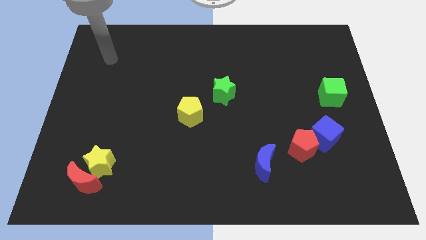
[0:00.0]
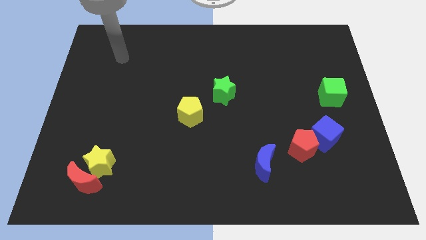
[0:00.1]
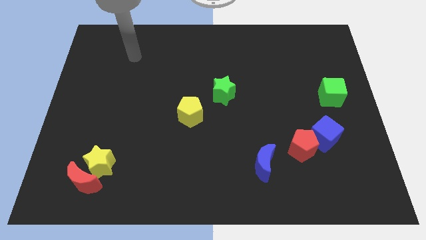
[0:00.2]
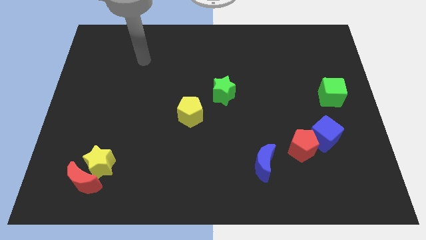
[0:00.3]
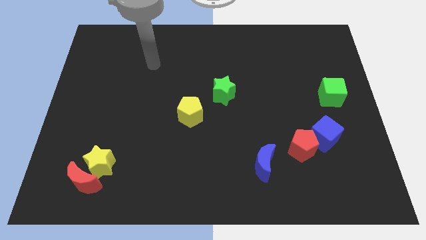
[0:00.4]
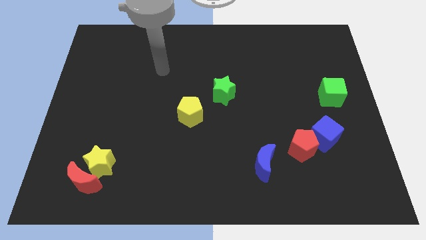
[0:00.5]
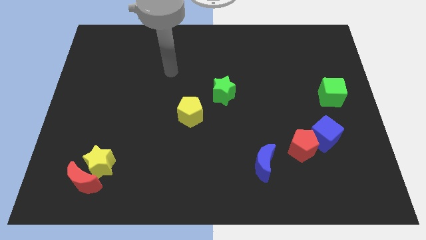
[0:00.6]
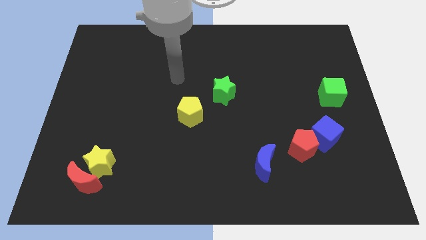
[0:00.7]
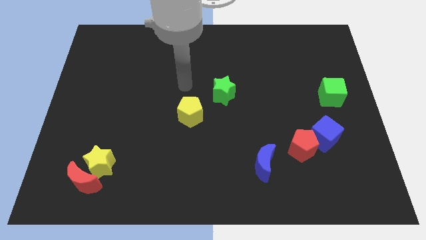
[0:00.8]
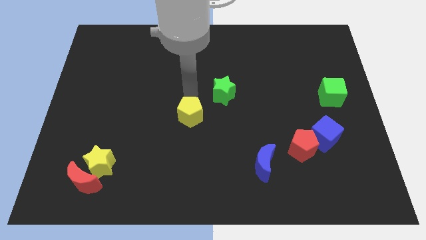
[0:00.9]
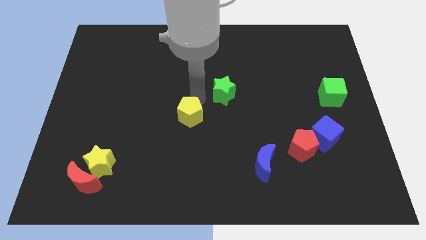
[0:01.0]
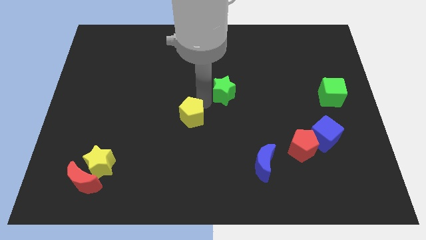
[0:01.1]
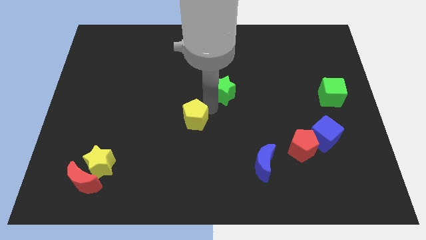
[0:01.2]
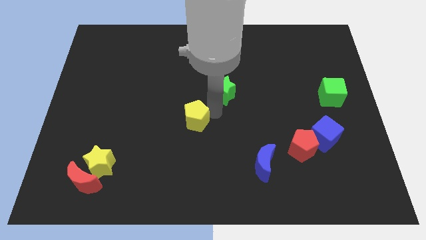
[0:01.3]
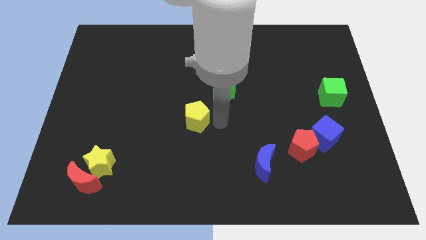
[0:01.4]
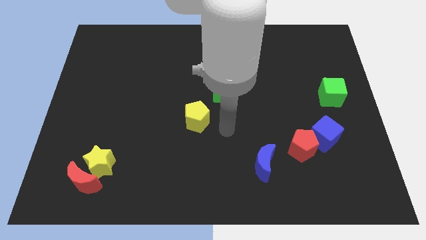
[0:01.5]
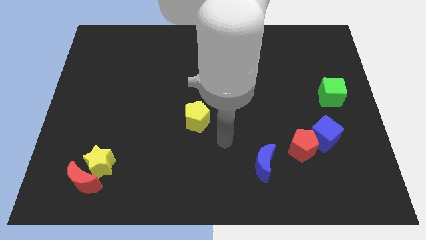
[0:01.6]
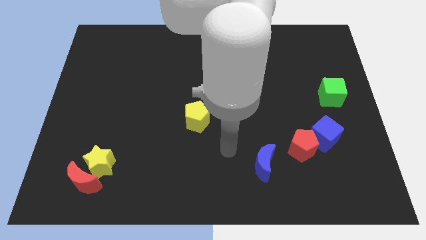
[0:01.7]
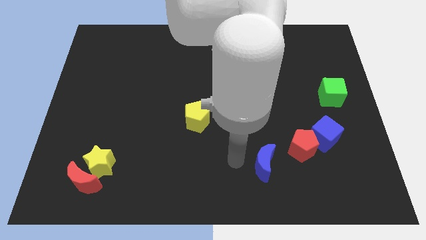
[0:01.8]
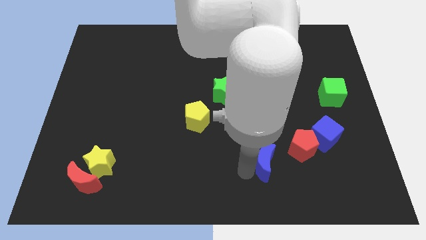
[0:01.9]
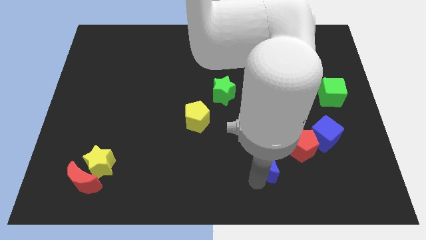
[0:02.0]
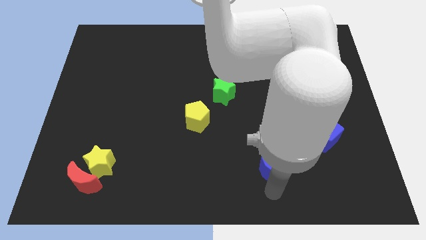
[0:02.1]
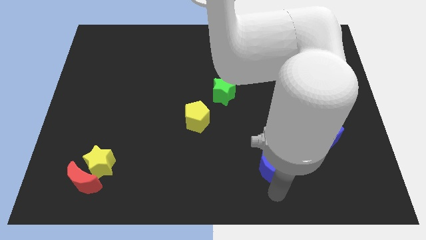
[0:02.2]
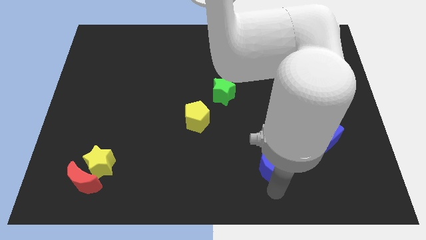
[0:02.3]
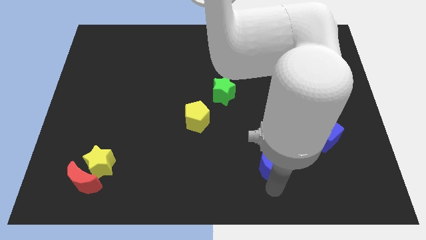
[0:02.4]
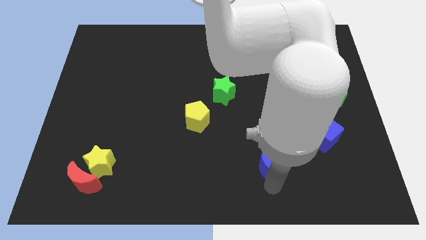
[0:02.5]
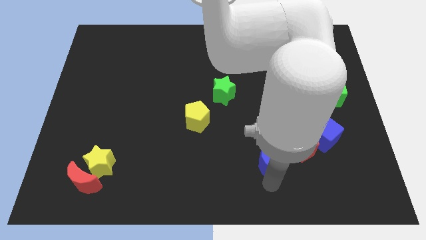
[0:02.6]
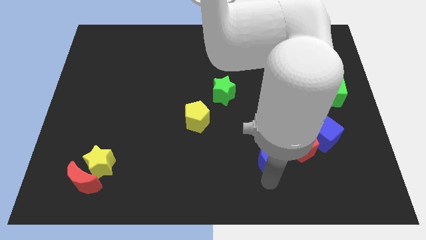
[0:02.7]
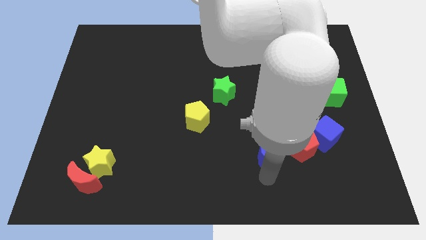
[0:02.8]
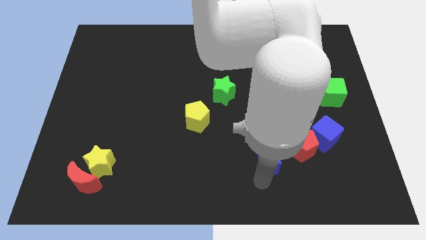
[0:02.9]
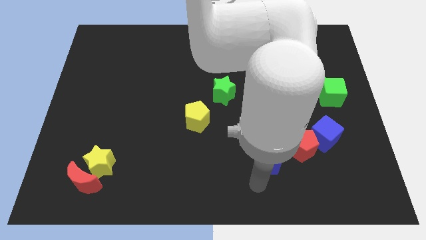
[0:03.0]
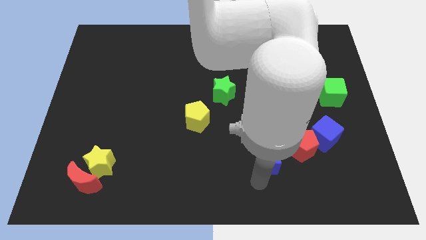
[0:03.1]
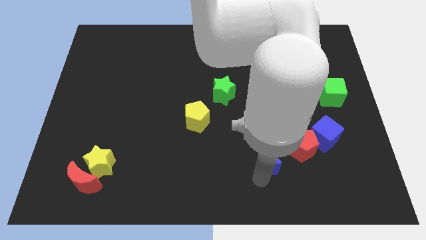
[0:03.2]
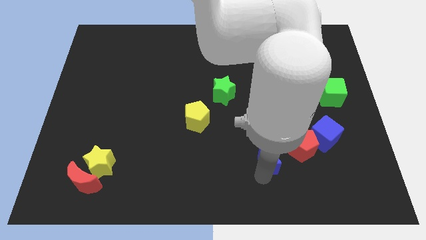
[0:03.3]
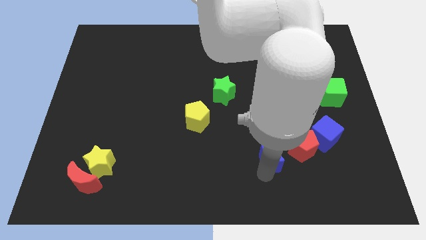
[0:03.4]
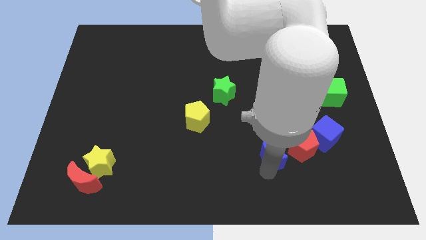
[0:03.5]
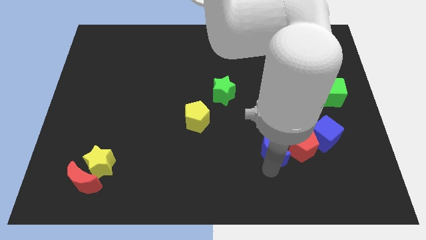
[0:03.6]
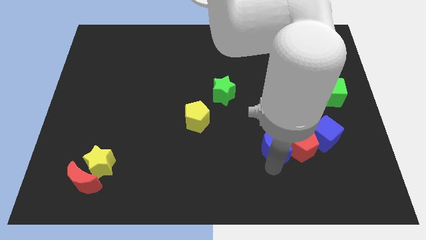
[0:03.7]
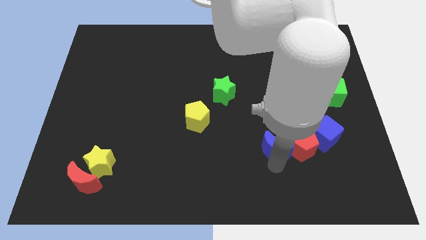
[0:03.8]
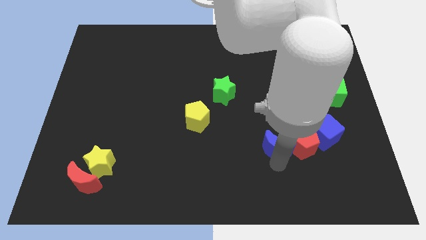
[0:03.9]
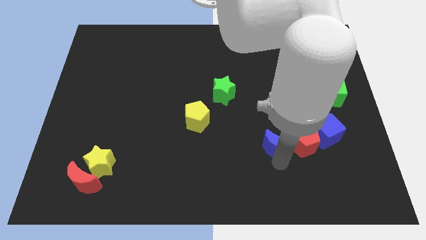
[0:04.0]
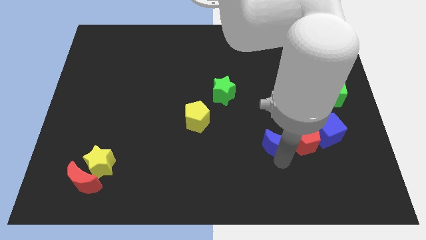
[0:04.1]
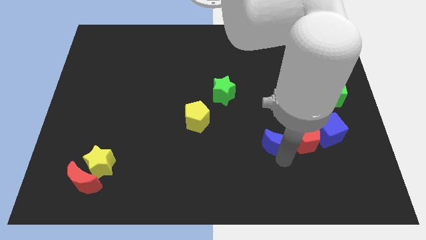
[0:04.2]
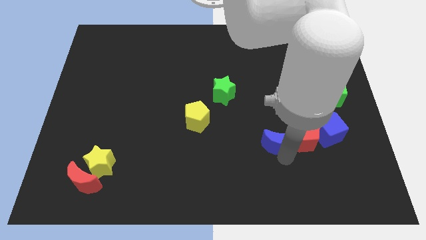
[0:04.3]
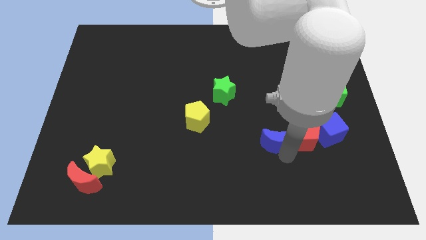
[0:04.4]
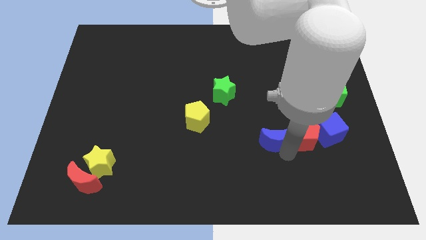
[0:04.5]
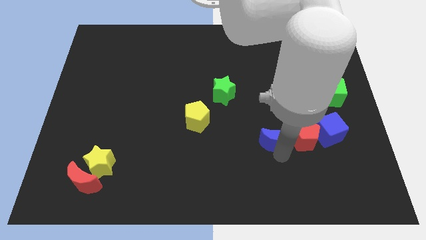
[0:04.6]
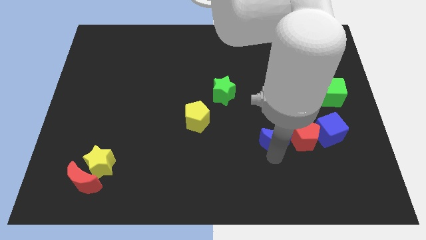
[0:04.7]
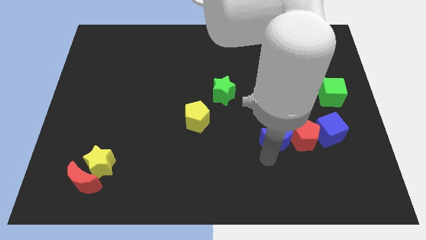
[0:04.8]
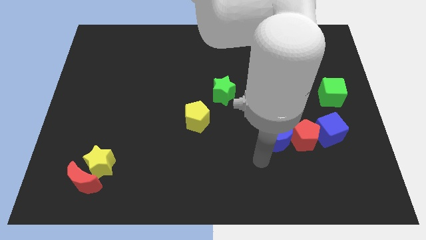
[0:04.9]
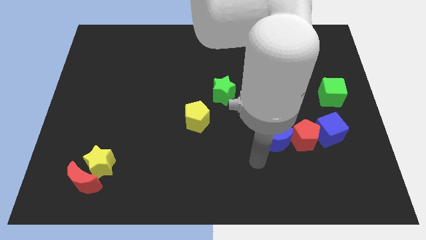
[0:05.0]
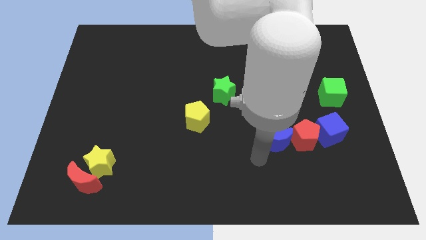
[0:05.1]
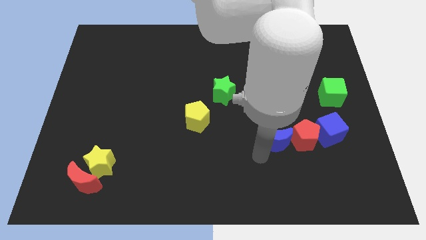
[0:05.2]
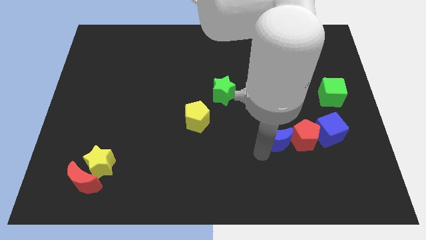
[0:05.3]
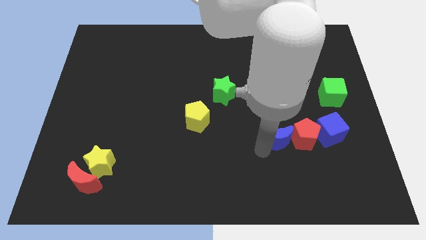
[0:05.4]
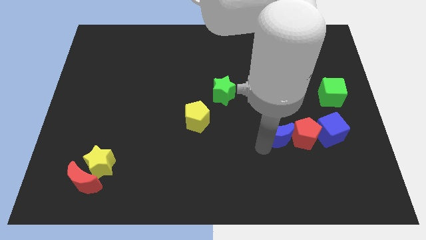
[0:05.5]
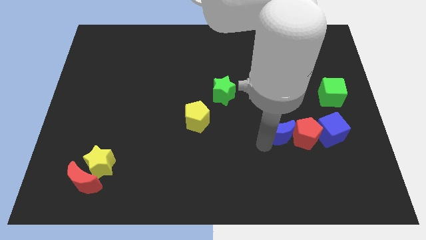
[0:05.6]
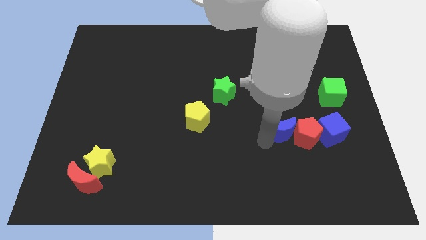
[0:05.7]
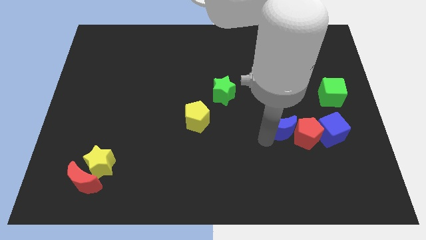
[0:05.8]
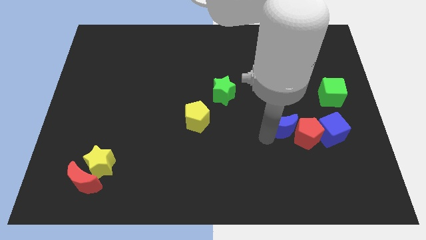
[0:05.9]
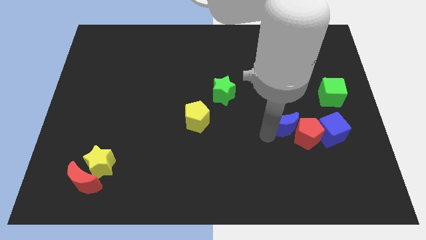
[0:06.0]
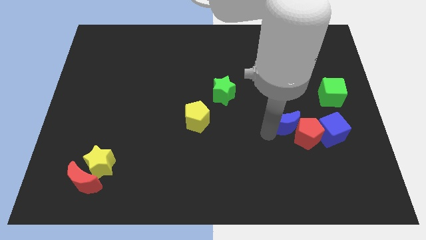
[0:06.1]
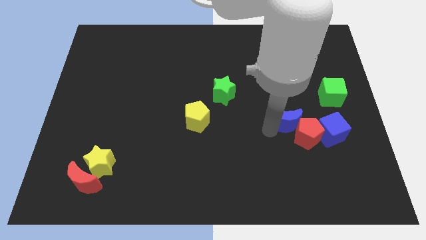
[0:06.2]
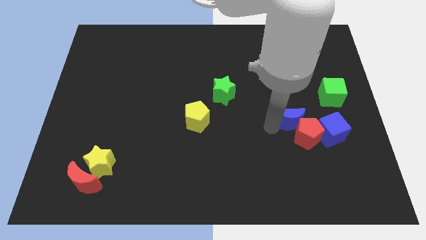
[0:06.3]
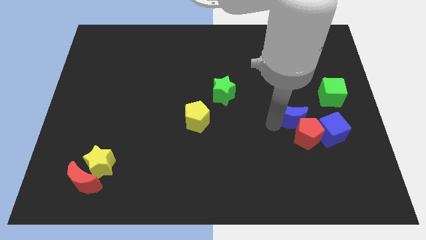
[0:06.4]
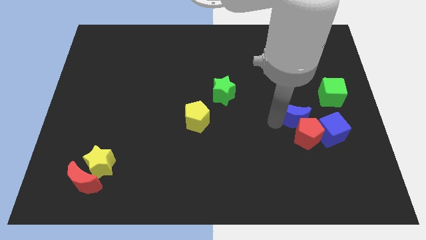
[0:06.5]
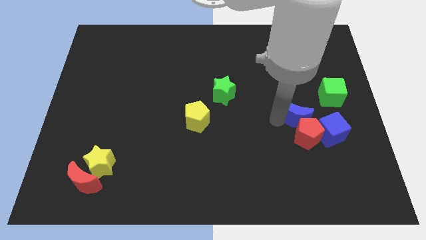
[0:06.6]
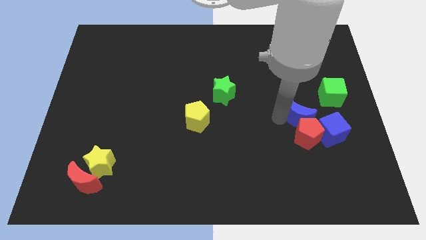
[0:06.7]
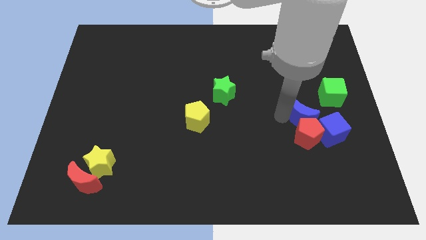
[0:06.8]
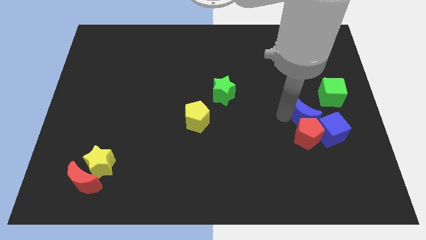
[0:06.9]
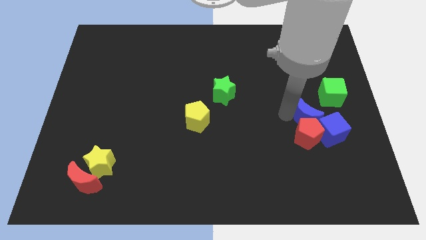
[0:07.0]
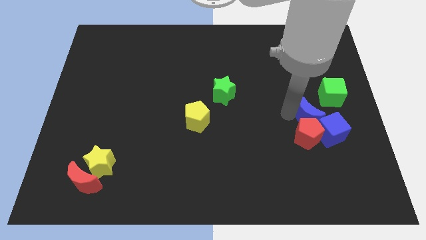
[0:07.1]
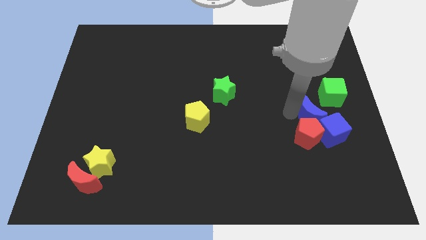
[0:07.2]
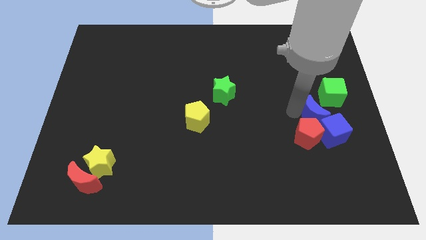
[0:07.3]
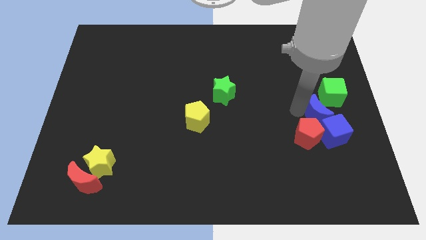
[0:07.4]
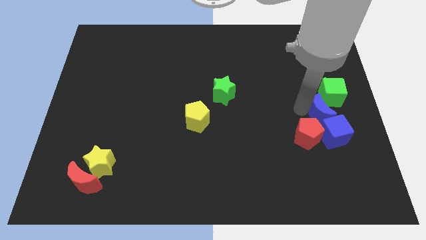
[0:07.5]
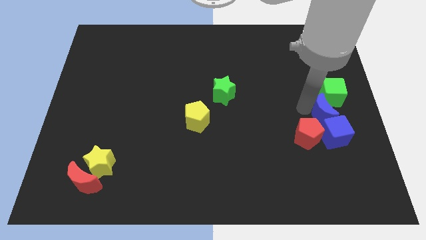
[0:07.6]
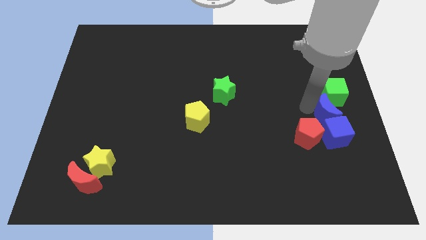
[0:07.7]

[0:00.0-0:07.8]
slide the blue moon to the right side
